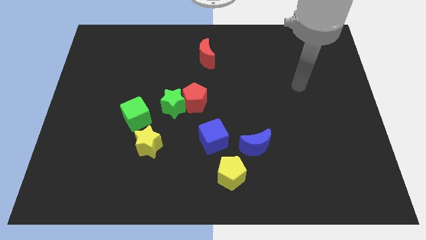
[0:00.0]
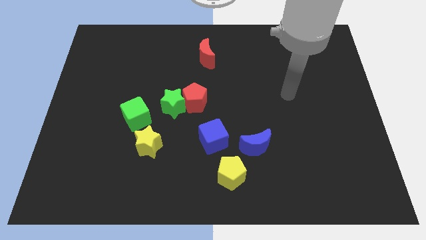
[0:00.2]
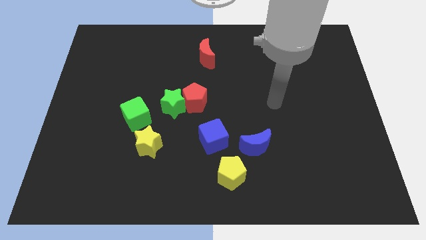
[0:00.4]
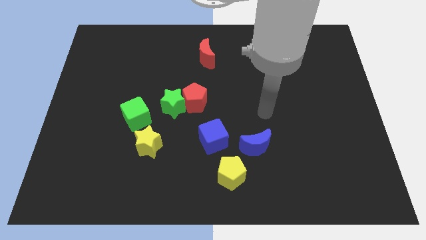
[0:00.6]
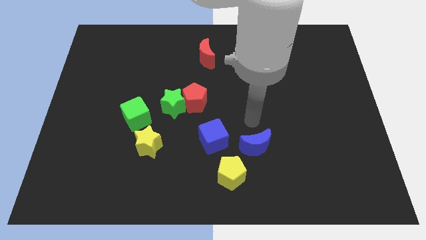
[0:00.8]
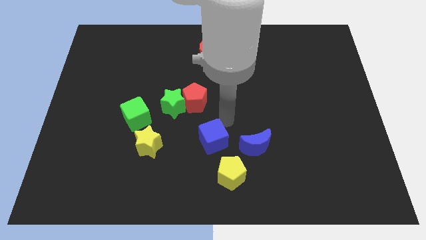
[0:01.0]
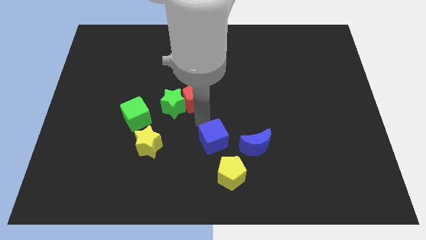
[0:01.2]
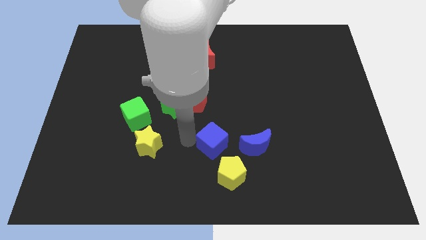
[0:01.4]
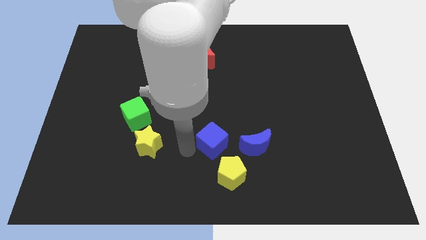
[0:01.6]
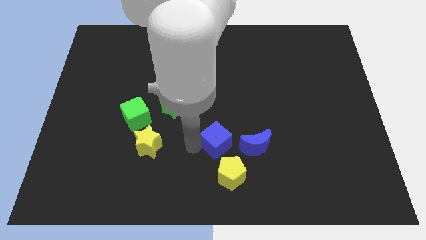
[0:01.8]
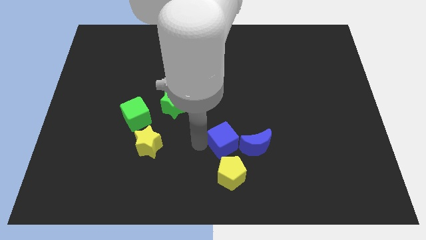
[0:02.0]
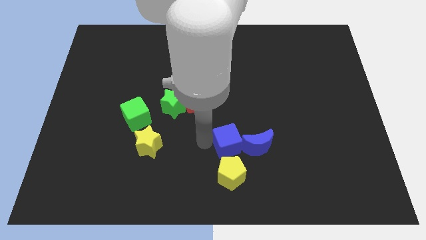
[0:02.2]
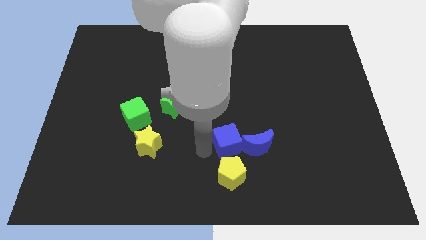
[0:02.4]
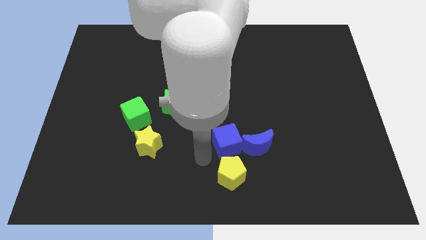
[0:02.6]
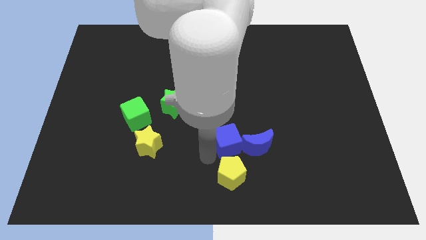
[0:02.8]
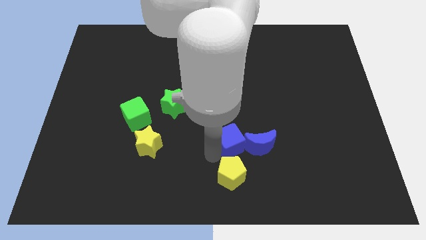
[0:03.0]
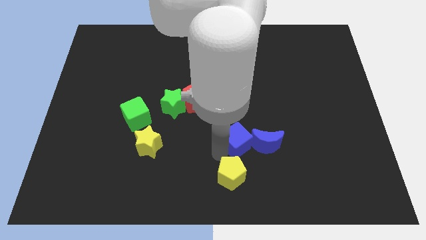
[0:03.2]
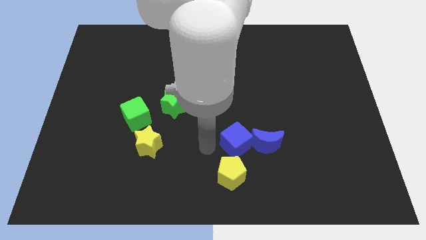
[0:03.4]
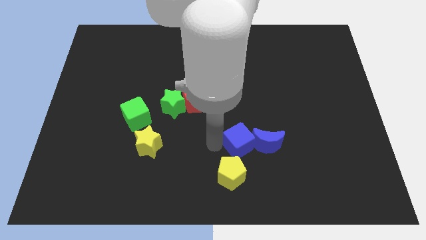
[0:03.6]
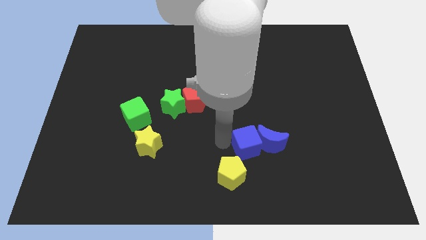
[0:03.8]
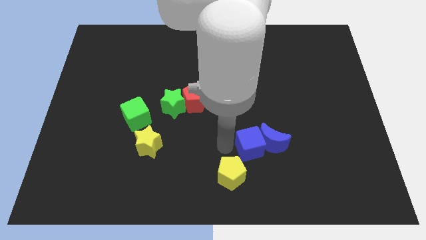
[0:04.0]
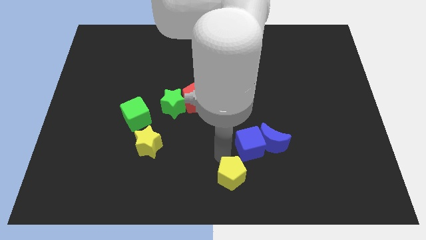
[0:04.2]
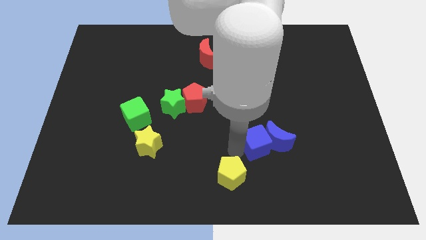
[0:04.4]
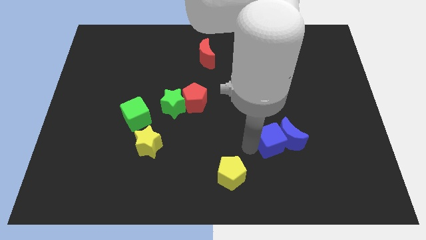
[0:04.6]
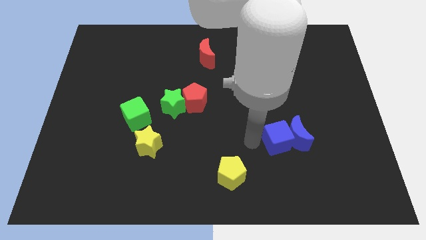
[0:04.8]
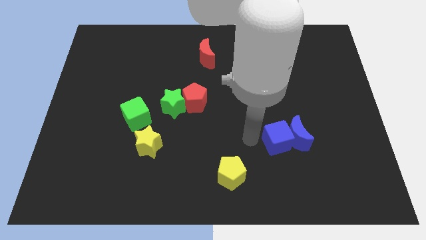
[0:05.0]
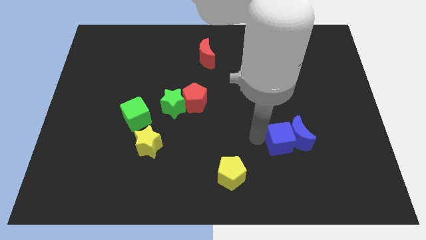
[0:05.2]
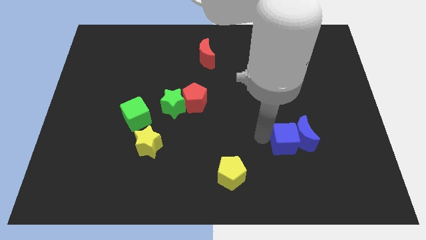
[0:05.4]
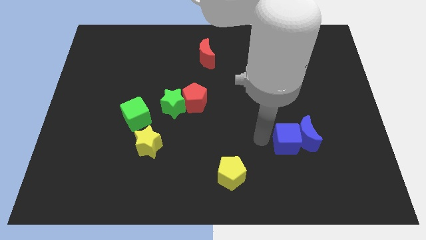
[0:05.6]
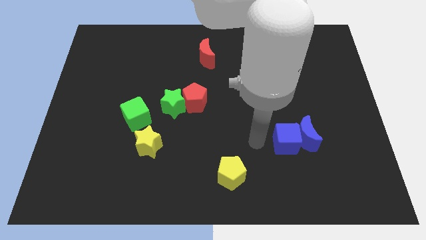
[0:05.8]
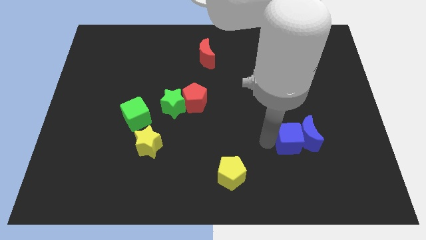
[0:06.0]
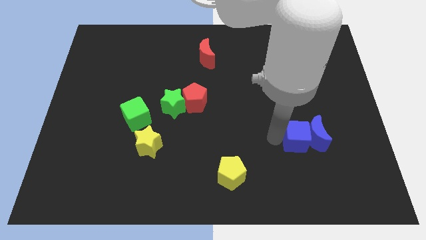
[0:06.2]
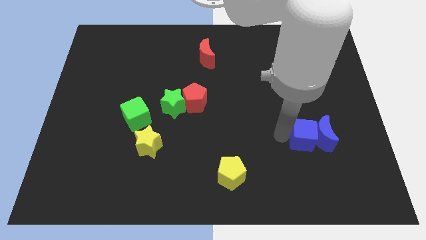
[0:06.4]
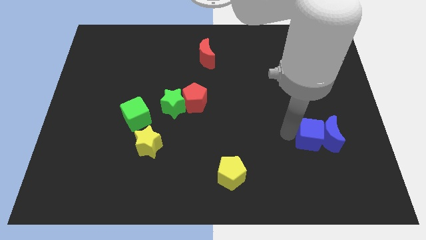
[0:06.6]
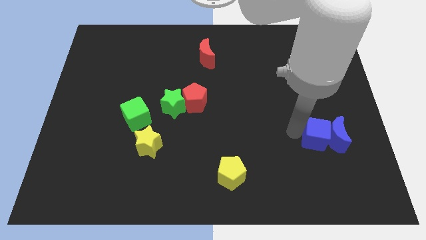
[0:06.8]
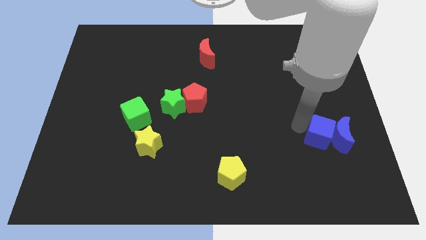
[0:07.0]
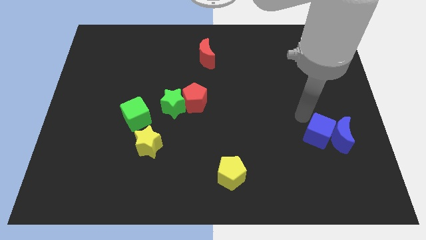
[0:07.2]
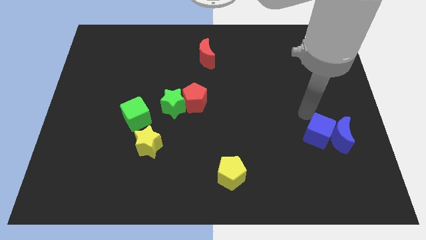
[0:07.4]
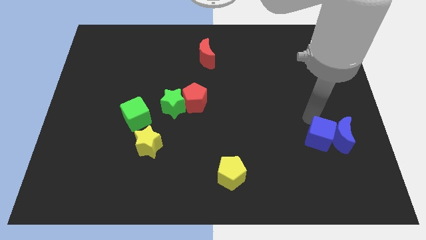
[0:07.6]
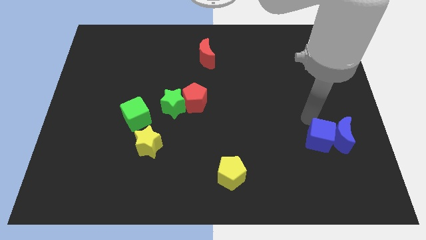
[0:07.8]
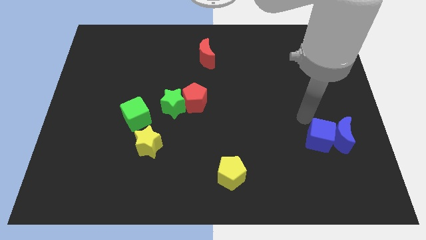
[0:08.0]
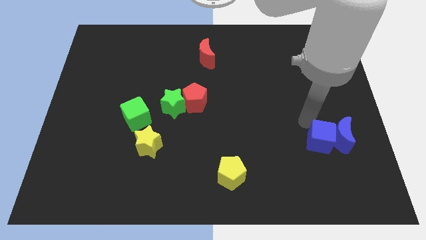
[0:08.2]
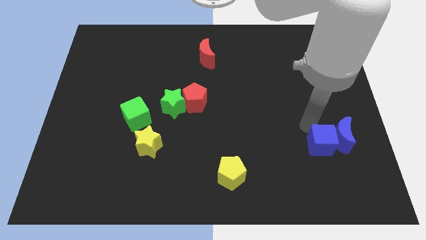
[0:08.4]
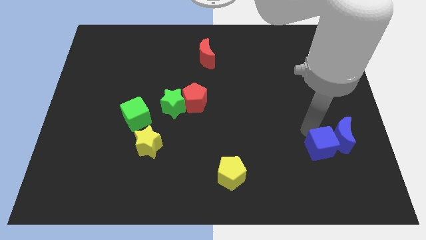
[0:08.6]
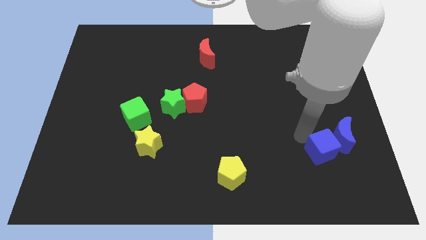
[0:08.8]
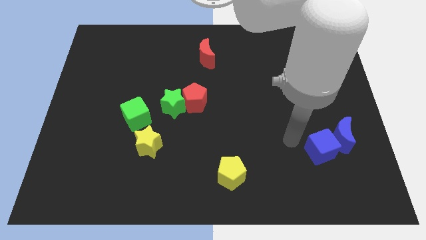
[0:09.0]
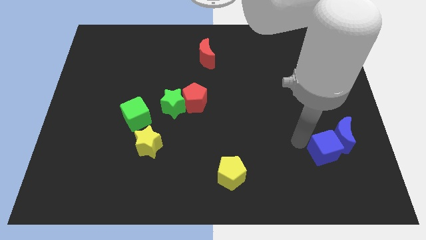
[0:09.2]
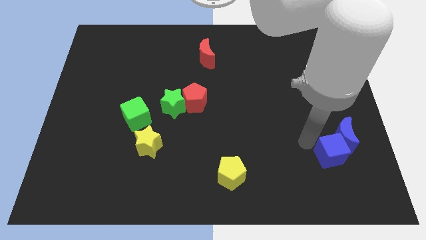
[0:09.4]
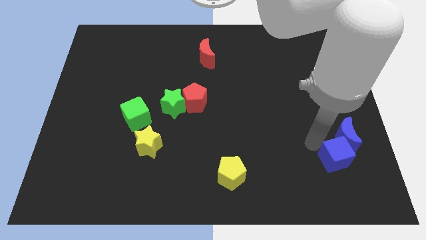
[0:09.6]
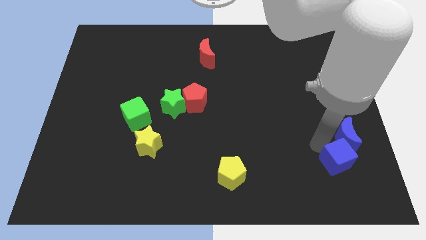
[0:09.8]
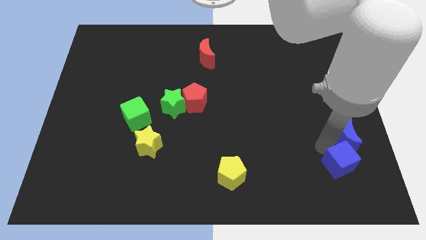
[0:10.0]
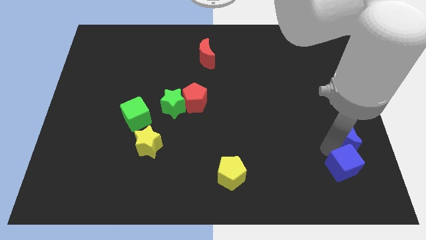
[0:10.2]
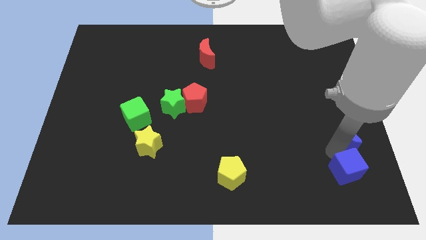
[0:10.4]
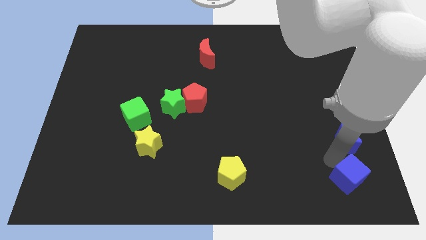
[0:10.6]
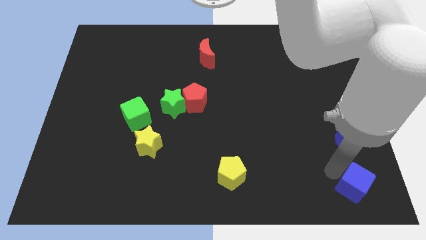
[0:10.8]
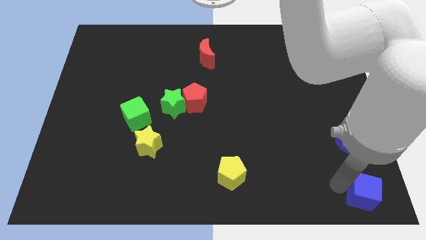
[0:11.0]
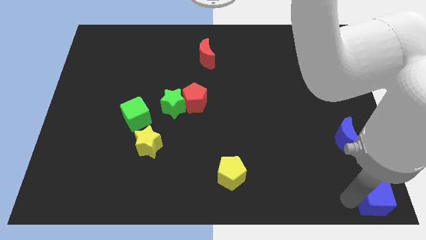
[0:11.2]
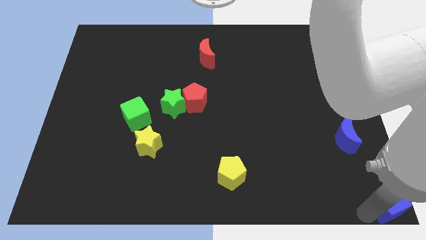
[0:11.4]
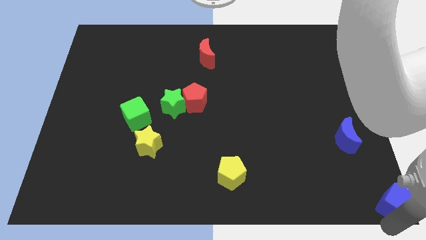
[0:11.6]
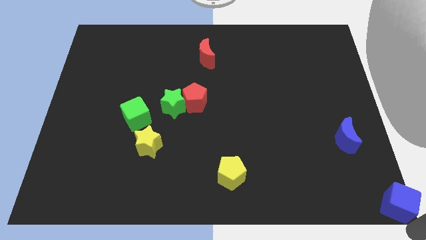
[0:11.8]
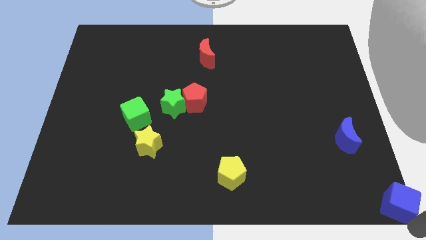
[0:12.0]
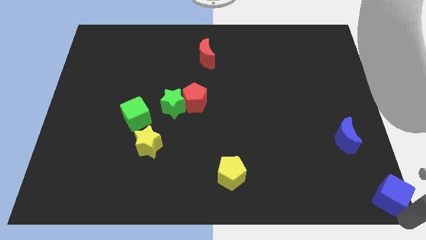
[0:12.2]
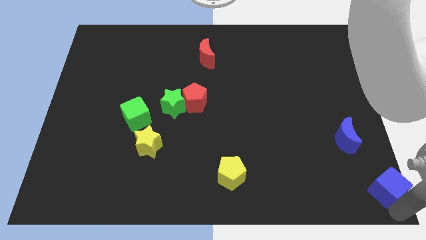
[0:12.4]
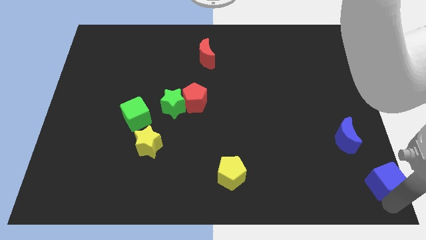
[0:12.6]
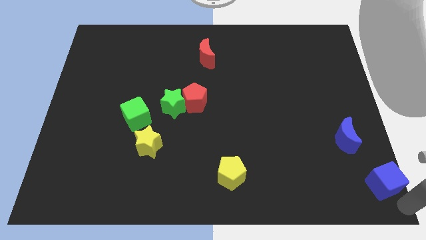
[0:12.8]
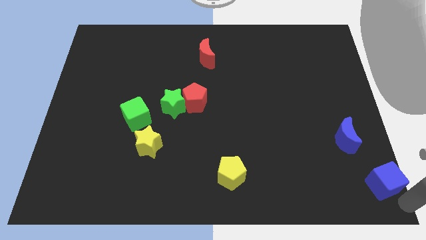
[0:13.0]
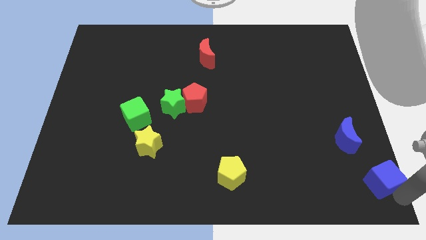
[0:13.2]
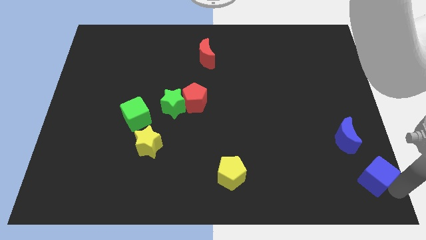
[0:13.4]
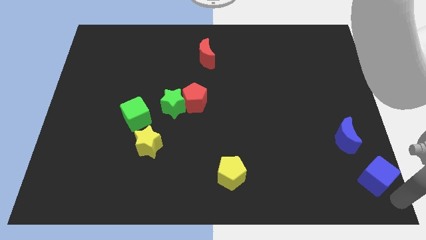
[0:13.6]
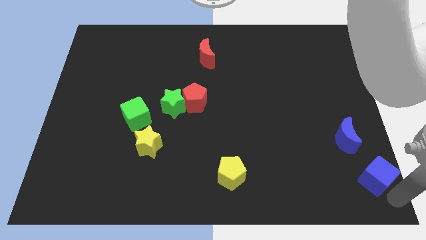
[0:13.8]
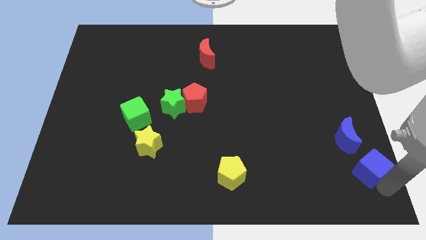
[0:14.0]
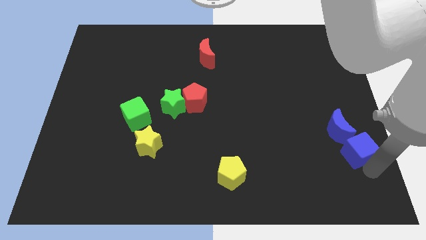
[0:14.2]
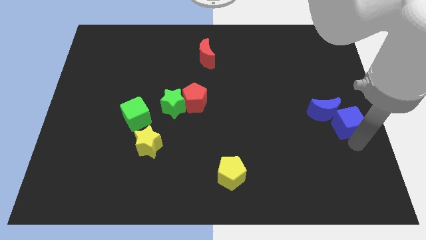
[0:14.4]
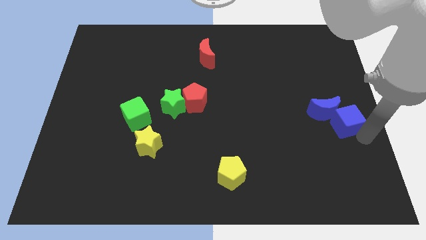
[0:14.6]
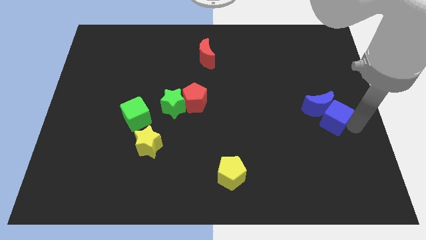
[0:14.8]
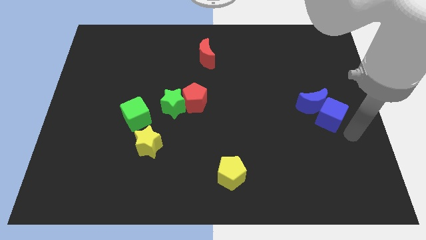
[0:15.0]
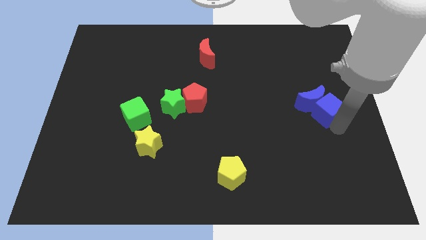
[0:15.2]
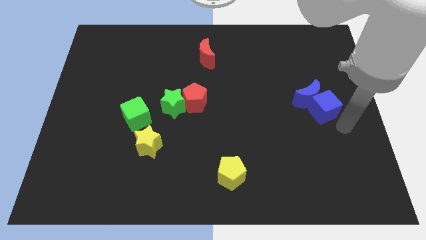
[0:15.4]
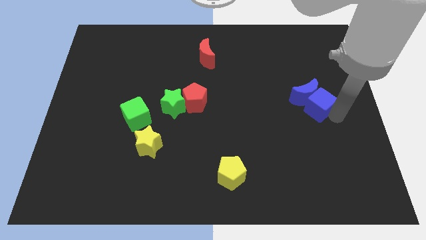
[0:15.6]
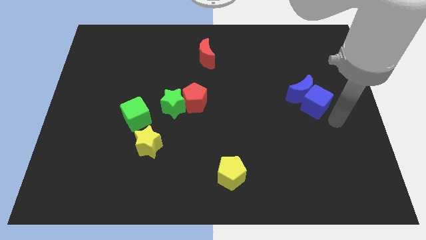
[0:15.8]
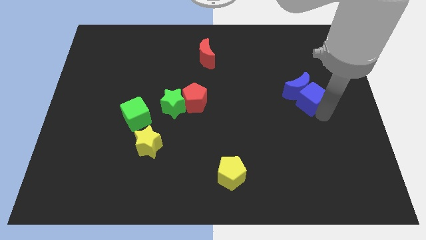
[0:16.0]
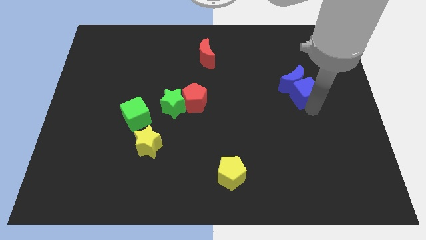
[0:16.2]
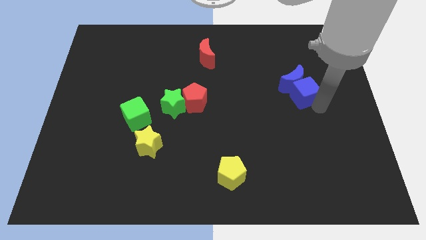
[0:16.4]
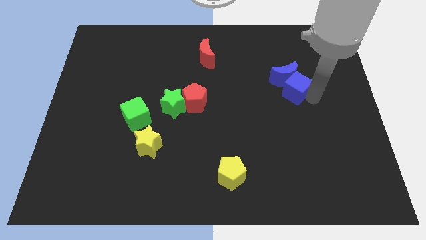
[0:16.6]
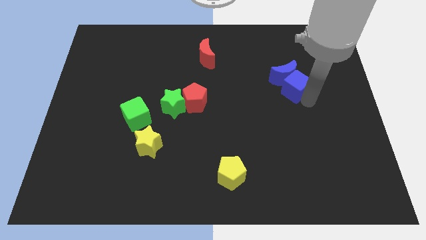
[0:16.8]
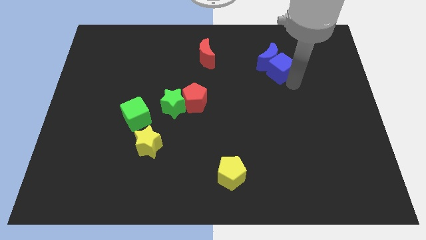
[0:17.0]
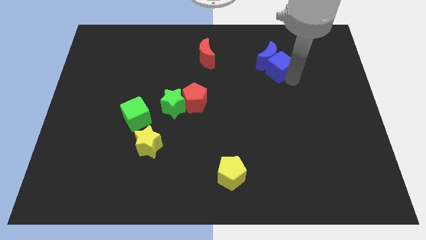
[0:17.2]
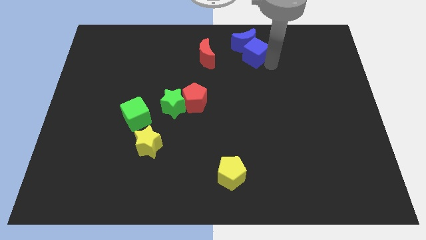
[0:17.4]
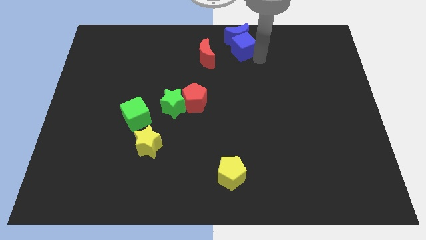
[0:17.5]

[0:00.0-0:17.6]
push the blue cube to the towards your base
